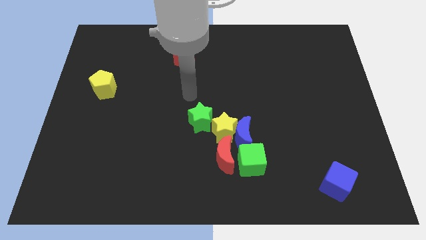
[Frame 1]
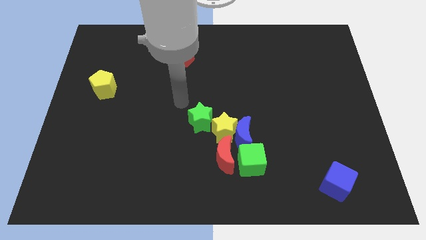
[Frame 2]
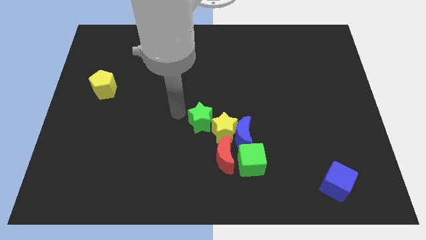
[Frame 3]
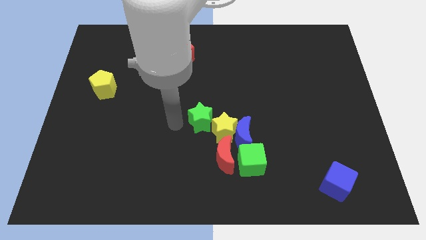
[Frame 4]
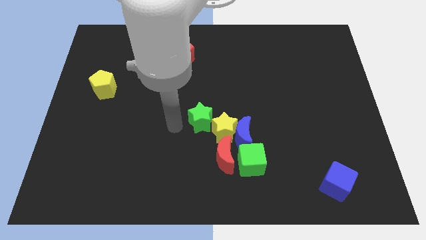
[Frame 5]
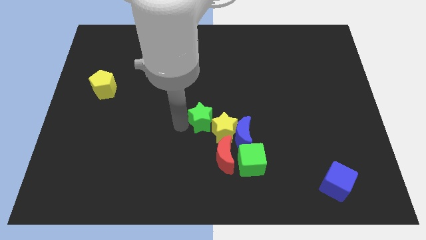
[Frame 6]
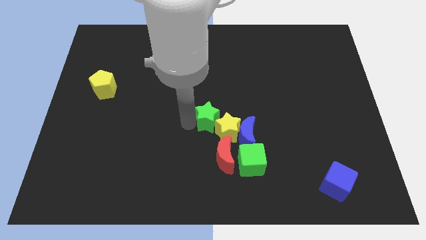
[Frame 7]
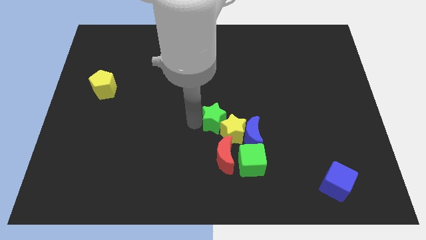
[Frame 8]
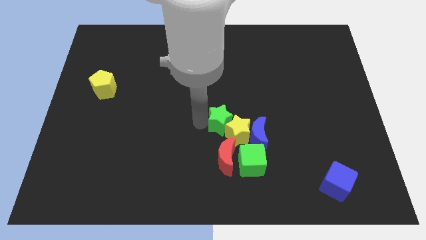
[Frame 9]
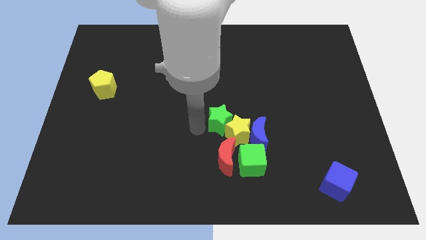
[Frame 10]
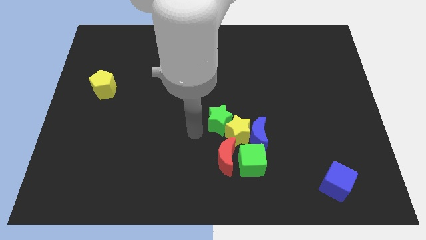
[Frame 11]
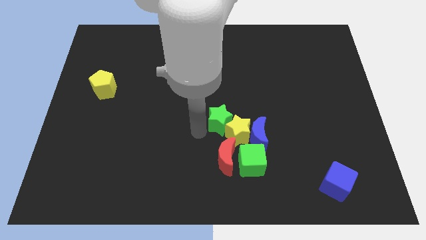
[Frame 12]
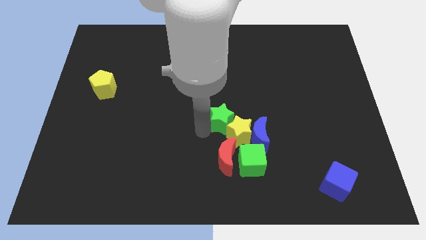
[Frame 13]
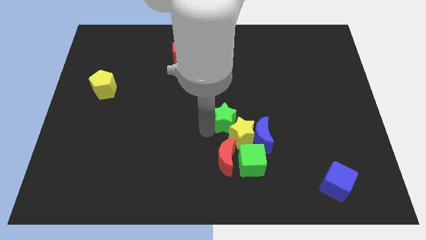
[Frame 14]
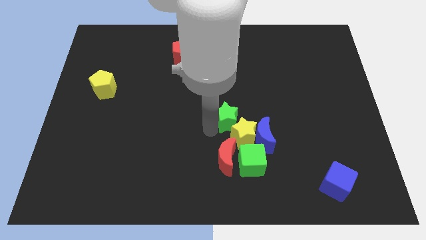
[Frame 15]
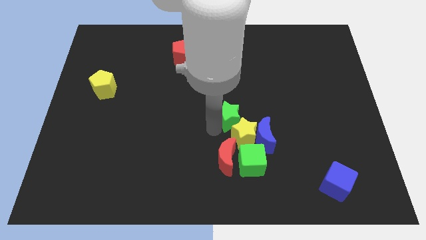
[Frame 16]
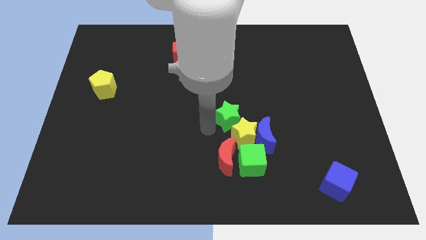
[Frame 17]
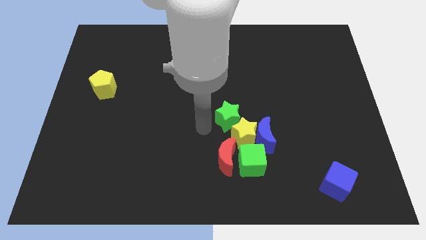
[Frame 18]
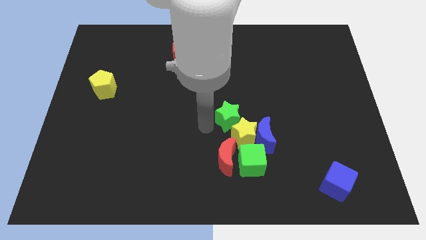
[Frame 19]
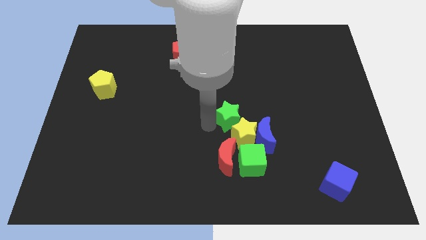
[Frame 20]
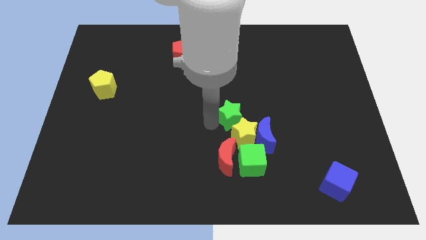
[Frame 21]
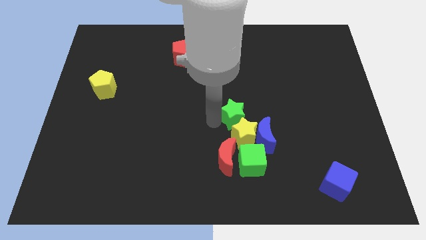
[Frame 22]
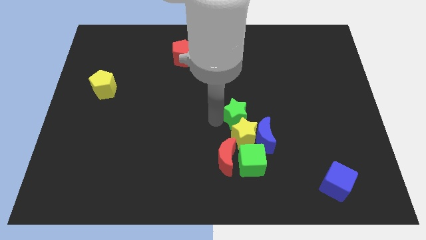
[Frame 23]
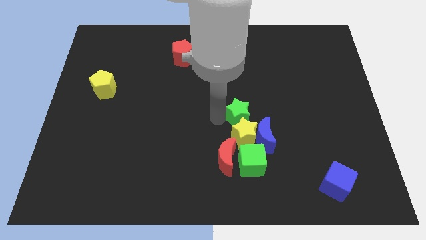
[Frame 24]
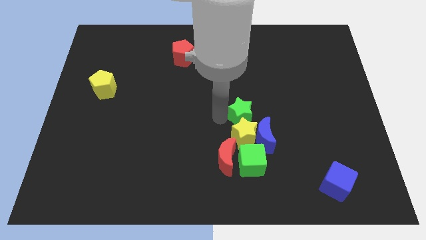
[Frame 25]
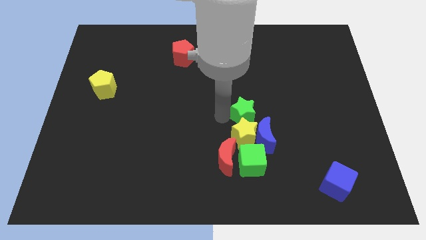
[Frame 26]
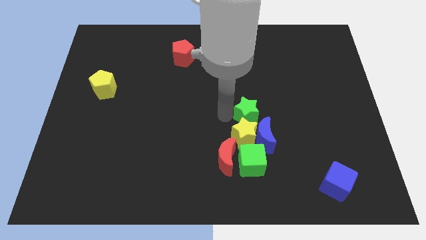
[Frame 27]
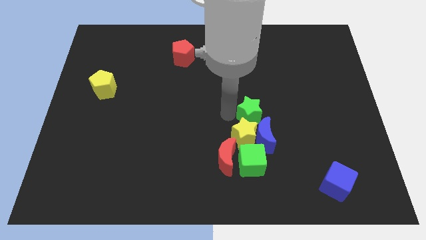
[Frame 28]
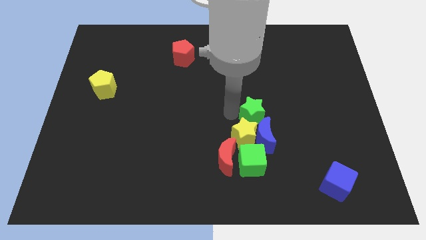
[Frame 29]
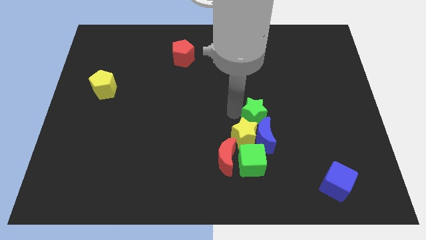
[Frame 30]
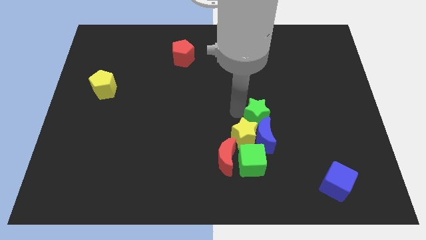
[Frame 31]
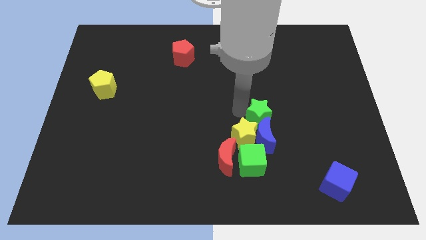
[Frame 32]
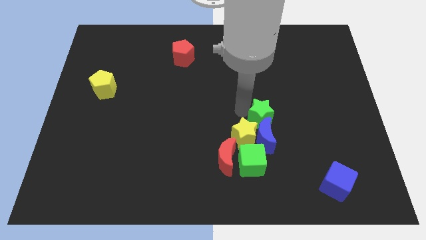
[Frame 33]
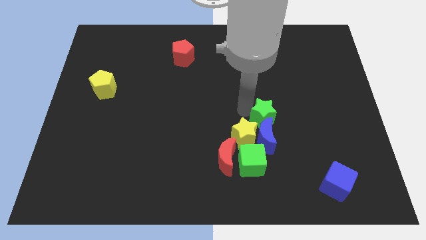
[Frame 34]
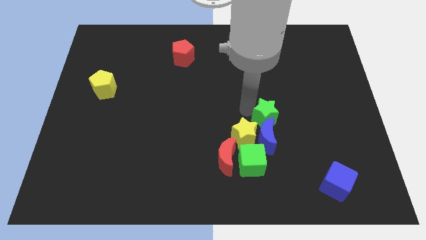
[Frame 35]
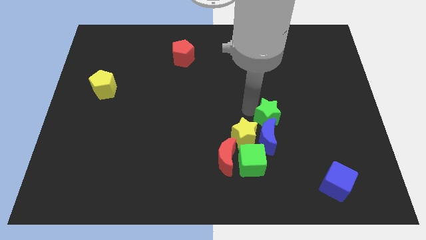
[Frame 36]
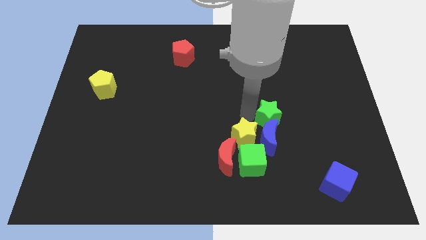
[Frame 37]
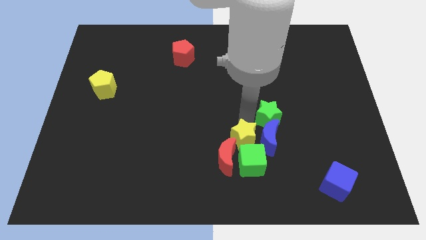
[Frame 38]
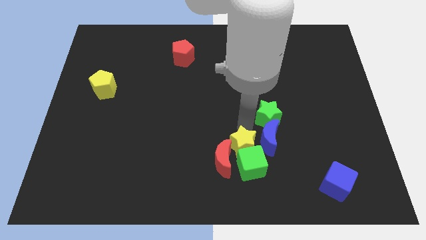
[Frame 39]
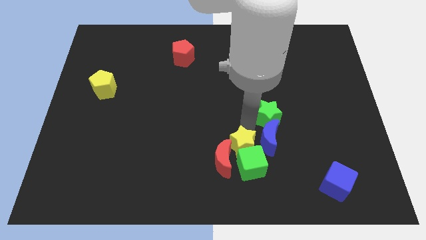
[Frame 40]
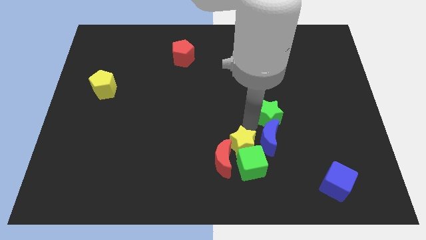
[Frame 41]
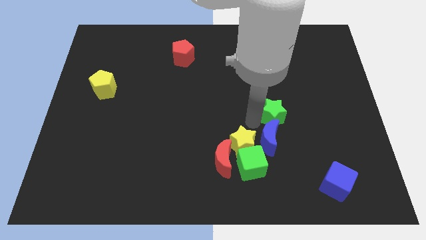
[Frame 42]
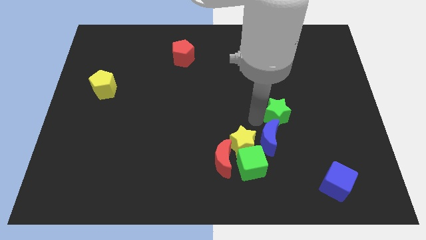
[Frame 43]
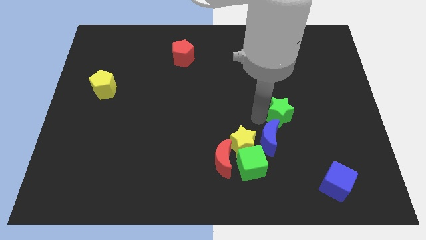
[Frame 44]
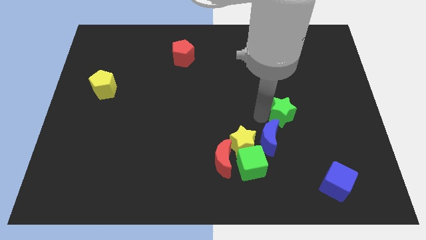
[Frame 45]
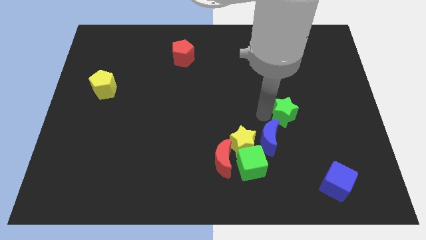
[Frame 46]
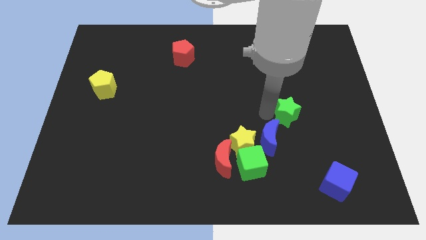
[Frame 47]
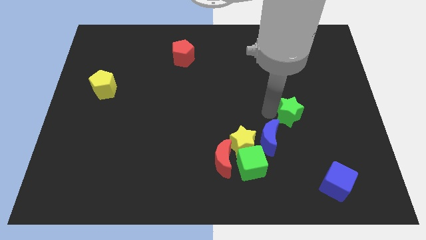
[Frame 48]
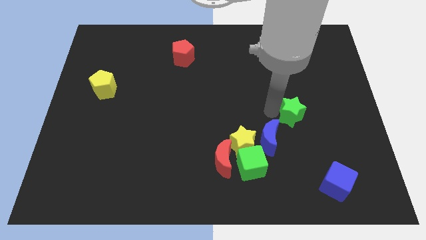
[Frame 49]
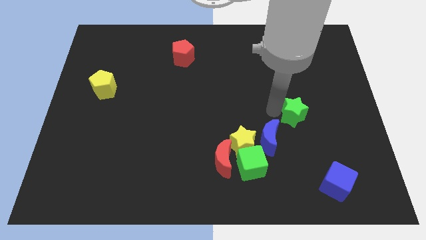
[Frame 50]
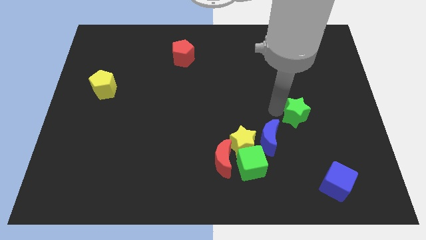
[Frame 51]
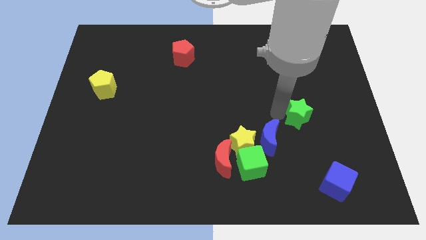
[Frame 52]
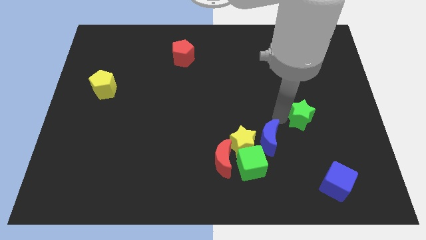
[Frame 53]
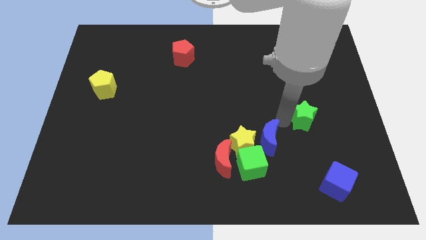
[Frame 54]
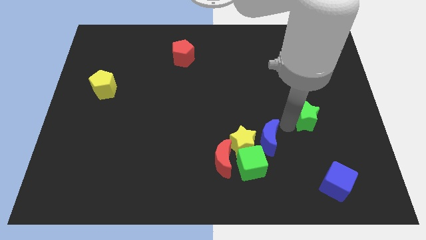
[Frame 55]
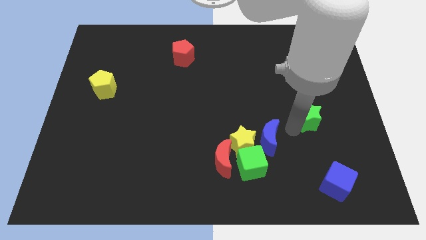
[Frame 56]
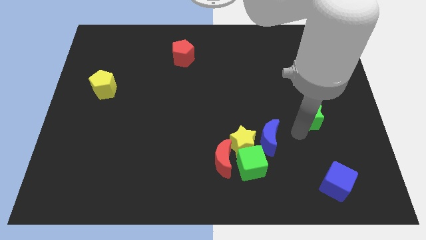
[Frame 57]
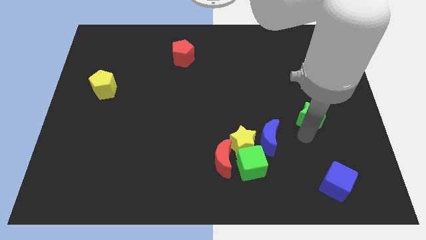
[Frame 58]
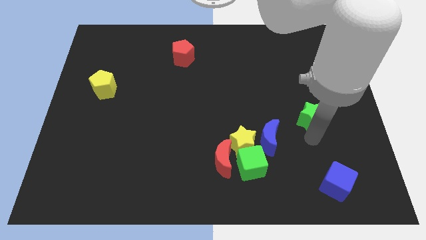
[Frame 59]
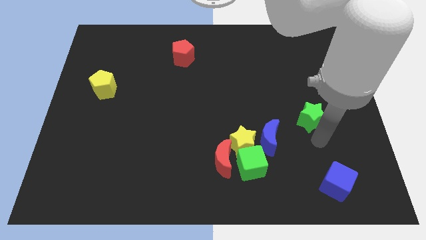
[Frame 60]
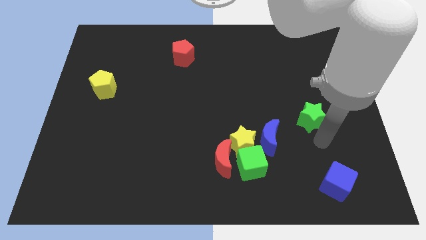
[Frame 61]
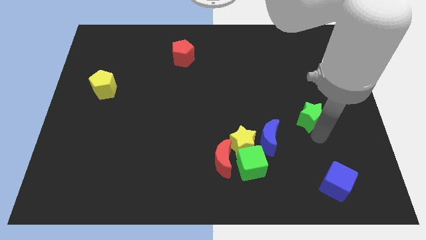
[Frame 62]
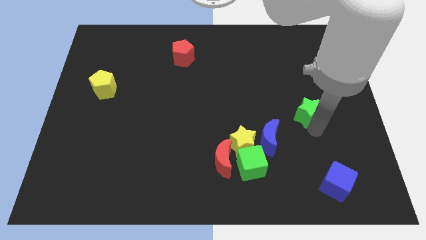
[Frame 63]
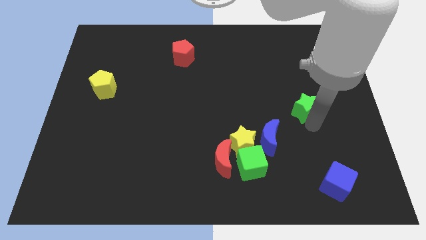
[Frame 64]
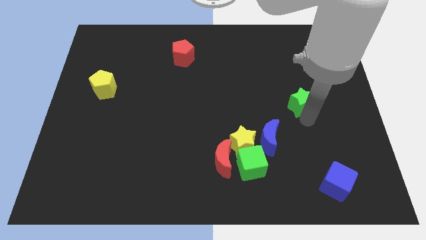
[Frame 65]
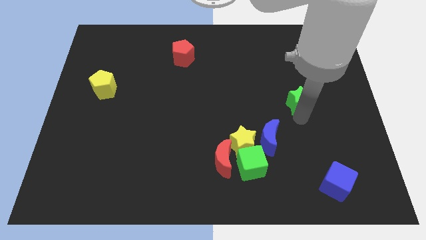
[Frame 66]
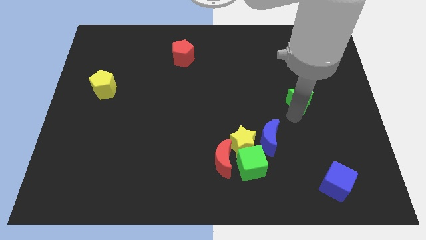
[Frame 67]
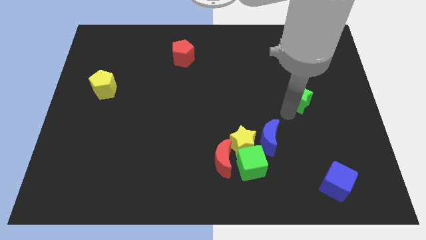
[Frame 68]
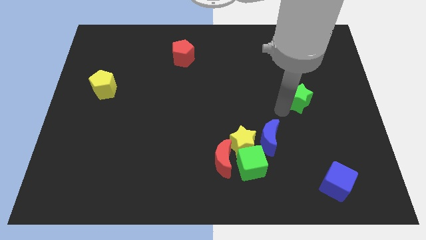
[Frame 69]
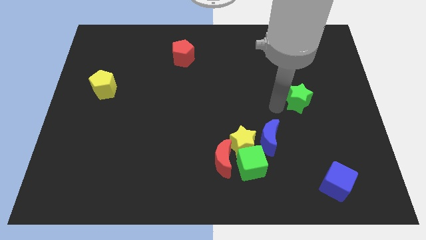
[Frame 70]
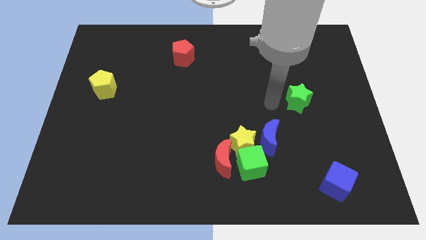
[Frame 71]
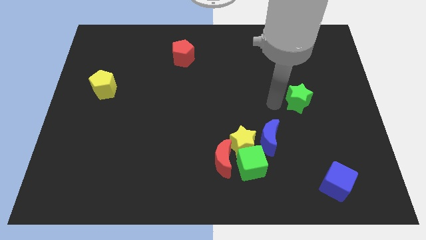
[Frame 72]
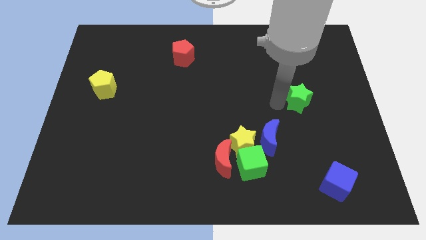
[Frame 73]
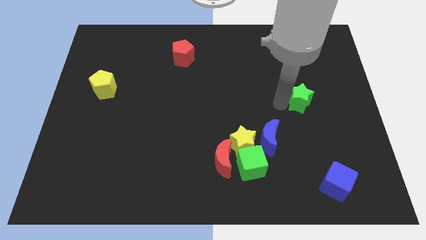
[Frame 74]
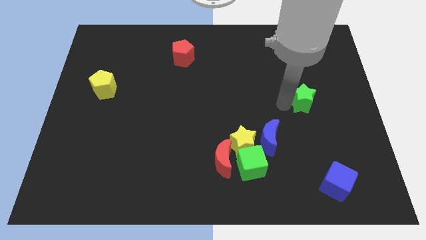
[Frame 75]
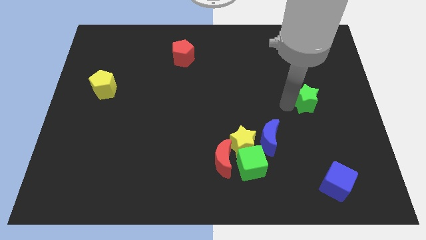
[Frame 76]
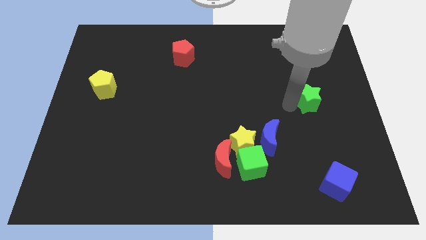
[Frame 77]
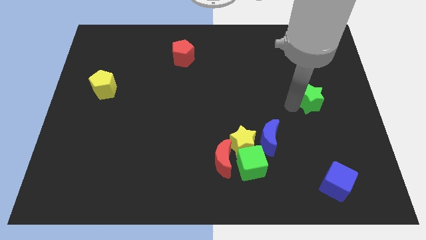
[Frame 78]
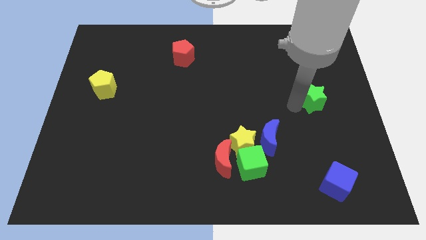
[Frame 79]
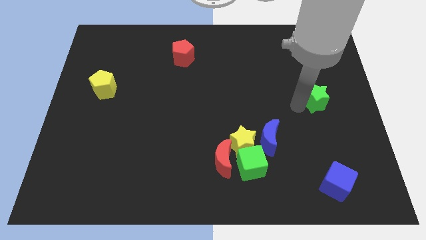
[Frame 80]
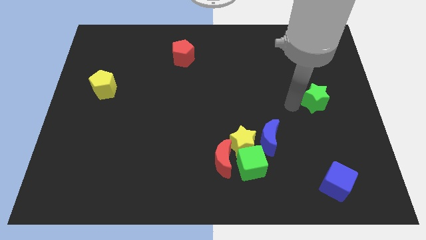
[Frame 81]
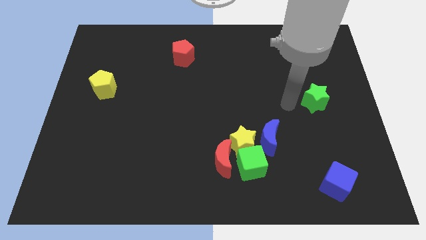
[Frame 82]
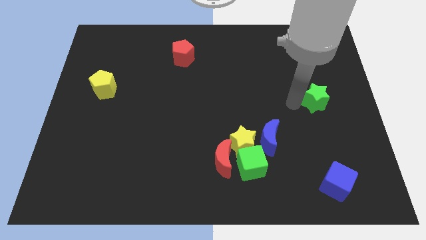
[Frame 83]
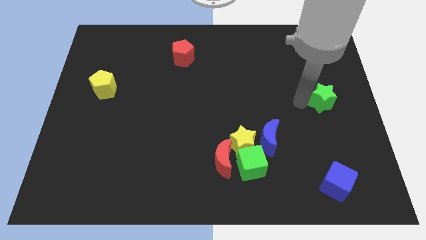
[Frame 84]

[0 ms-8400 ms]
put the green star to the right side
